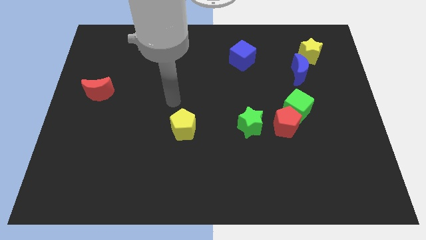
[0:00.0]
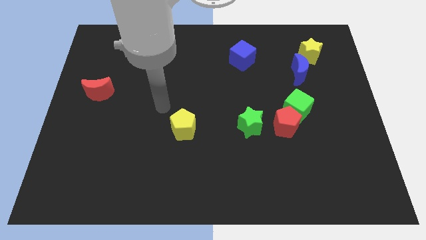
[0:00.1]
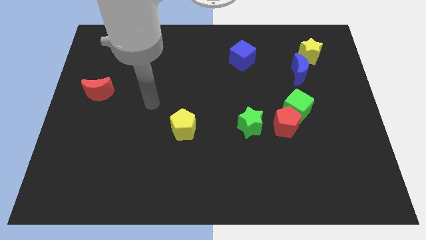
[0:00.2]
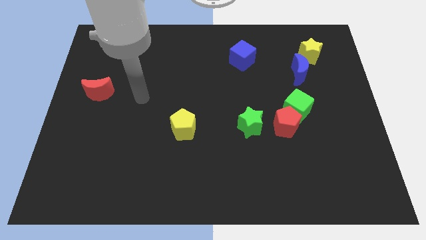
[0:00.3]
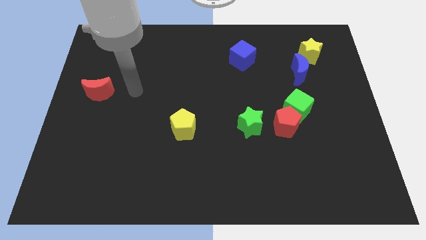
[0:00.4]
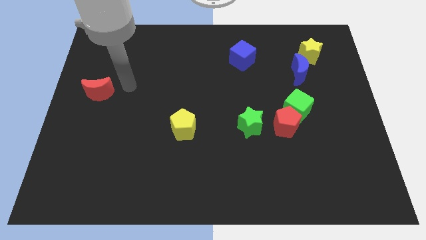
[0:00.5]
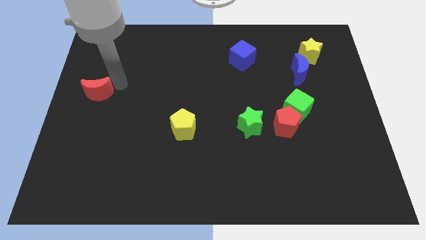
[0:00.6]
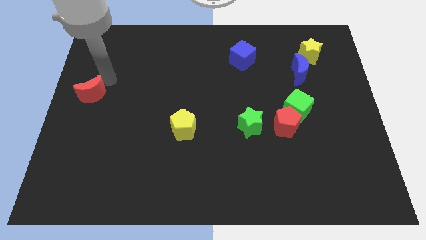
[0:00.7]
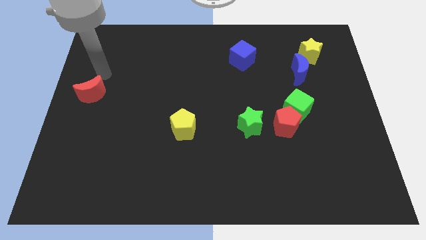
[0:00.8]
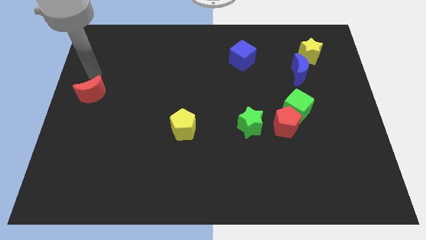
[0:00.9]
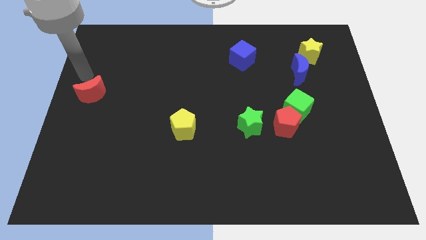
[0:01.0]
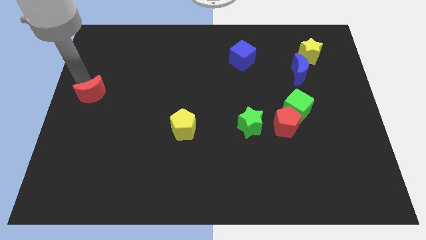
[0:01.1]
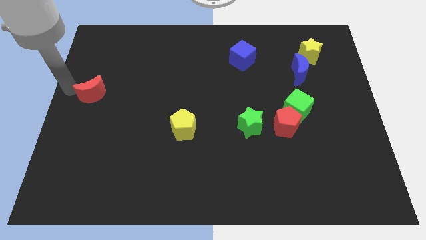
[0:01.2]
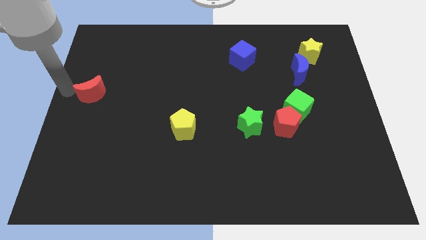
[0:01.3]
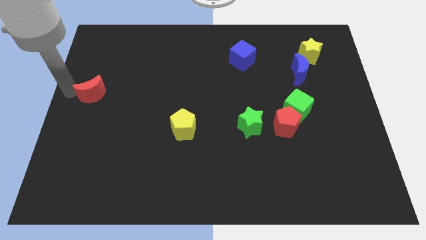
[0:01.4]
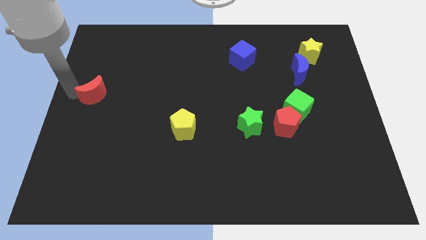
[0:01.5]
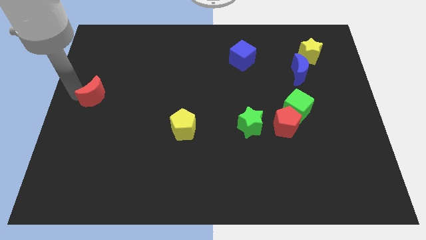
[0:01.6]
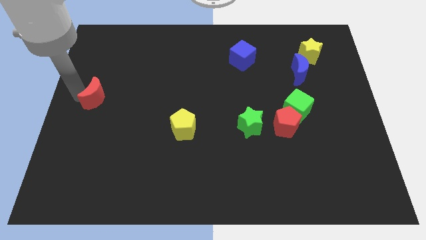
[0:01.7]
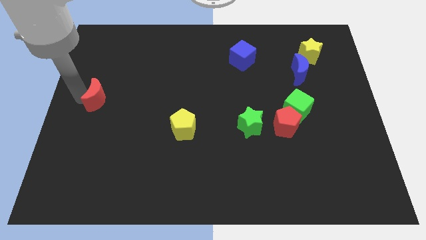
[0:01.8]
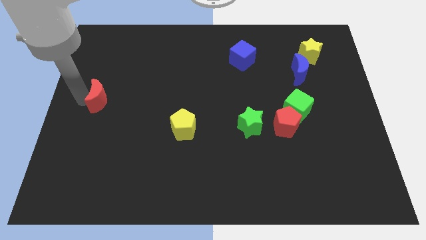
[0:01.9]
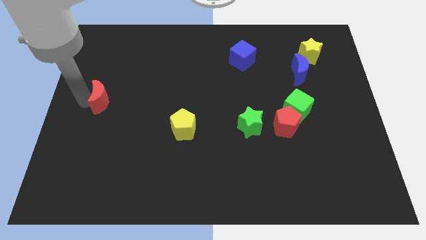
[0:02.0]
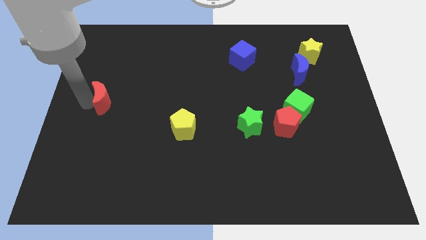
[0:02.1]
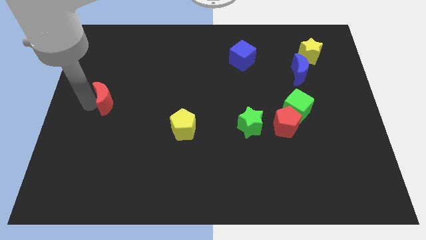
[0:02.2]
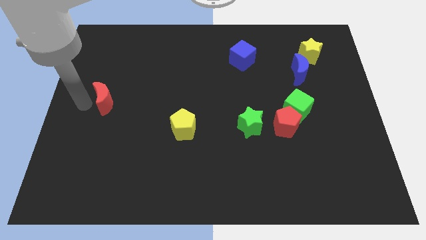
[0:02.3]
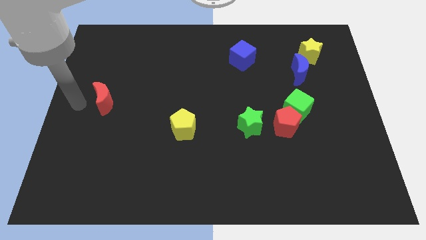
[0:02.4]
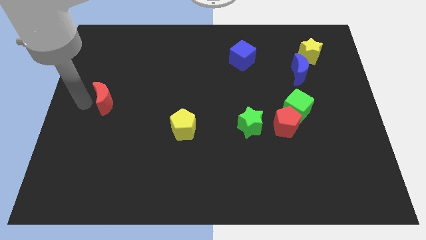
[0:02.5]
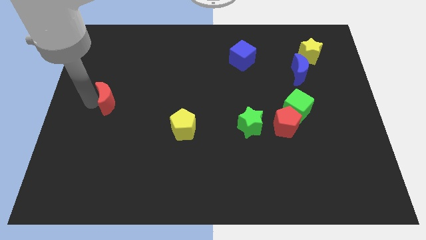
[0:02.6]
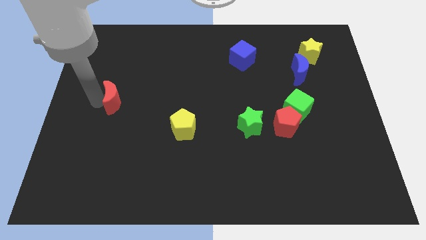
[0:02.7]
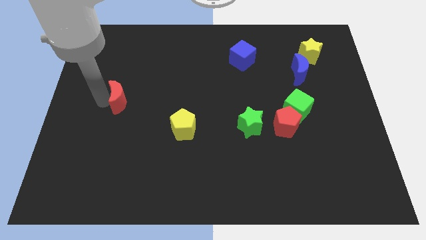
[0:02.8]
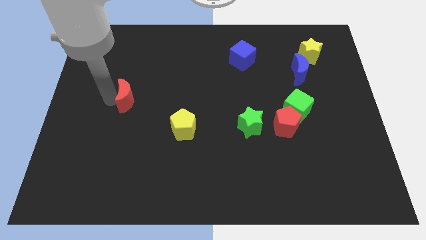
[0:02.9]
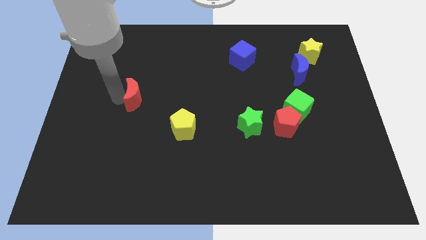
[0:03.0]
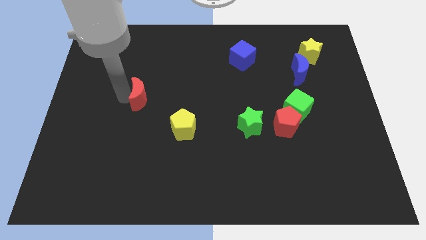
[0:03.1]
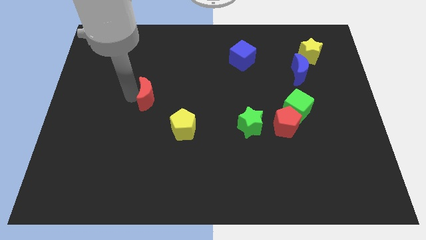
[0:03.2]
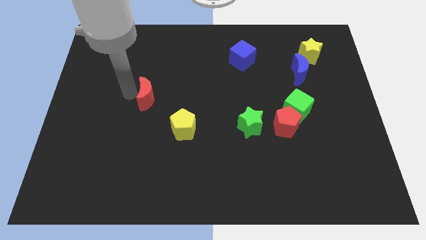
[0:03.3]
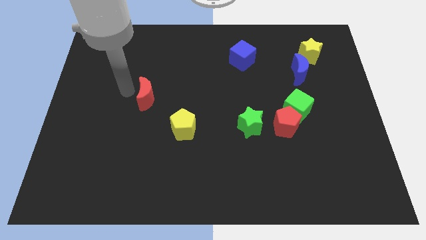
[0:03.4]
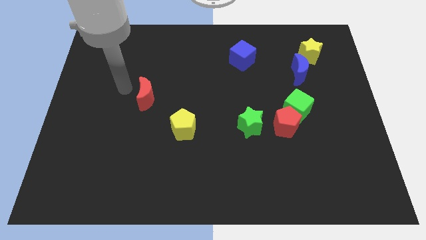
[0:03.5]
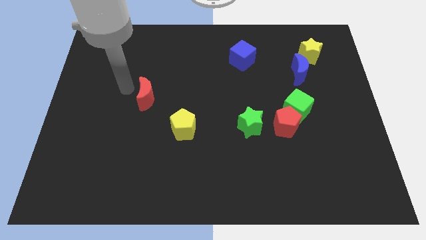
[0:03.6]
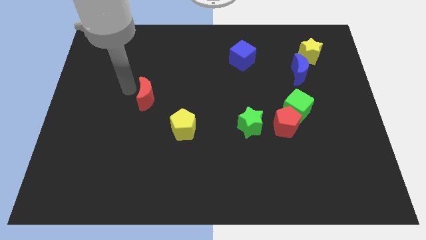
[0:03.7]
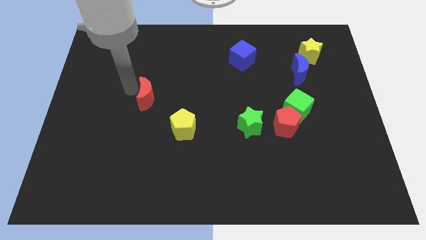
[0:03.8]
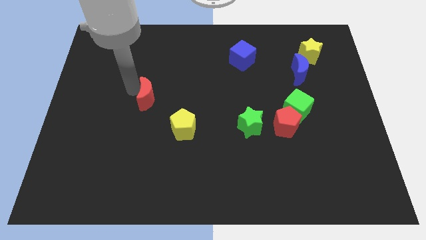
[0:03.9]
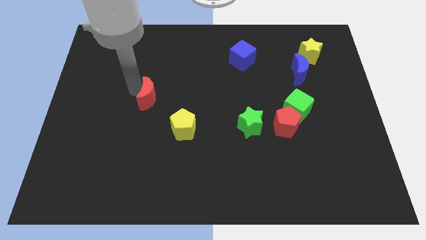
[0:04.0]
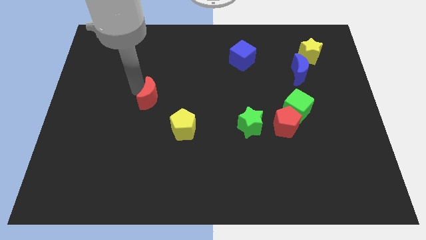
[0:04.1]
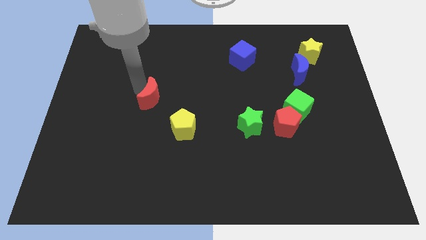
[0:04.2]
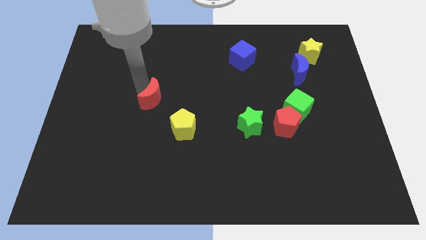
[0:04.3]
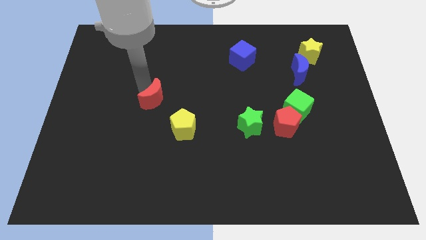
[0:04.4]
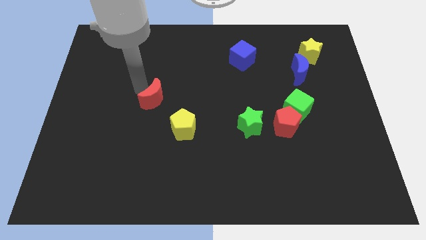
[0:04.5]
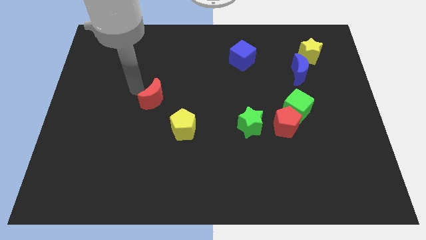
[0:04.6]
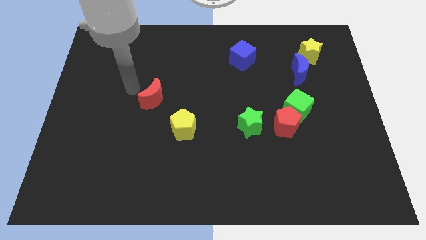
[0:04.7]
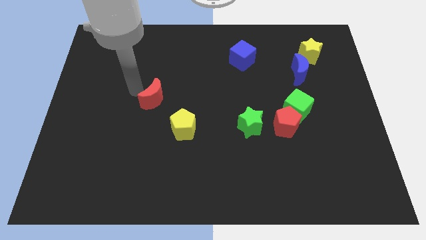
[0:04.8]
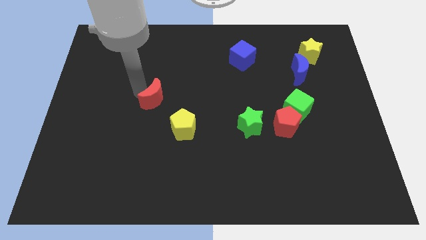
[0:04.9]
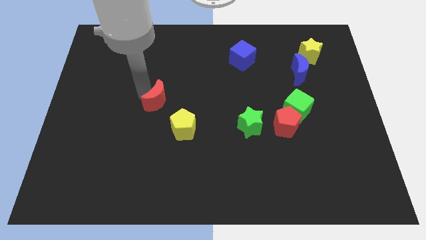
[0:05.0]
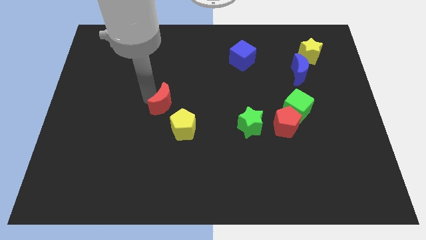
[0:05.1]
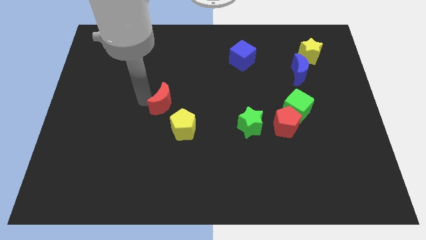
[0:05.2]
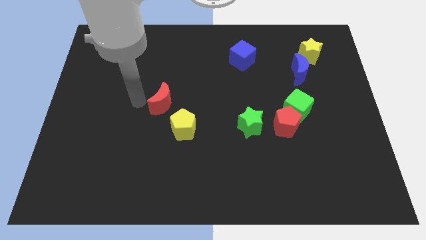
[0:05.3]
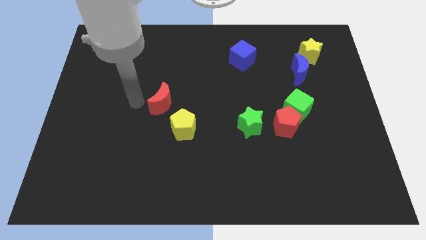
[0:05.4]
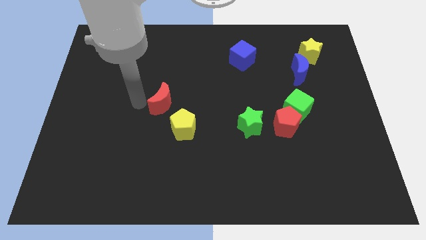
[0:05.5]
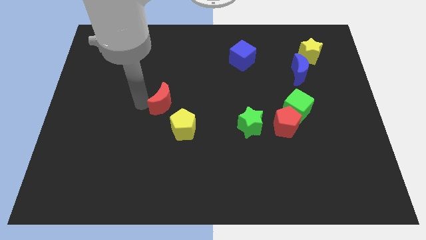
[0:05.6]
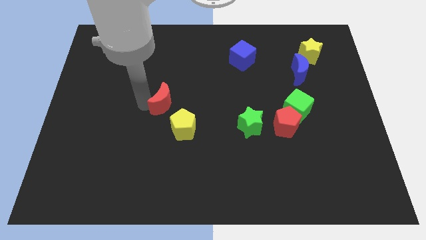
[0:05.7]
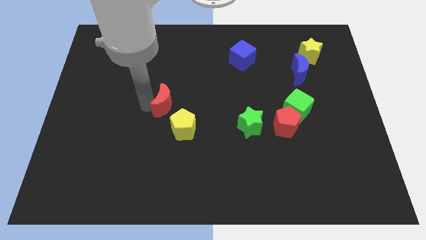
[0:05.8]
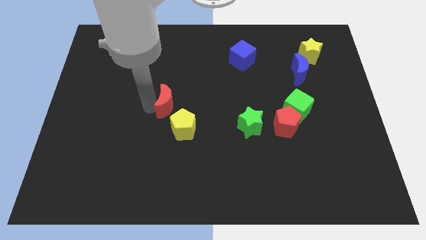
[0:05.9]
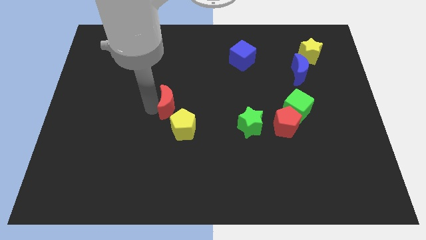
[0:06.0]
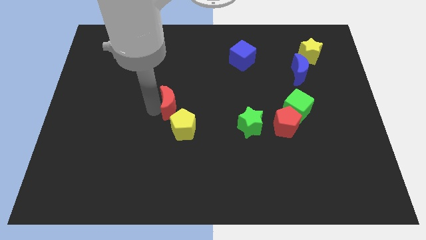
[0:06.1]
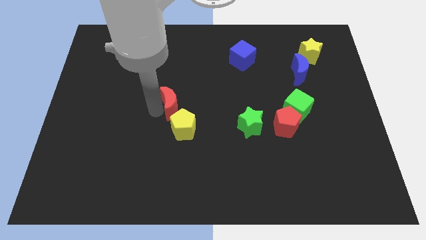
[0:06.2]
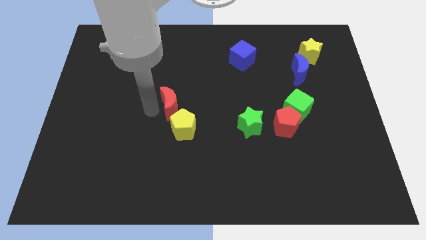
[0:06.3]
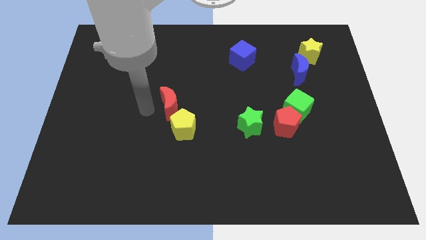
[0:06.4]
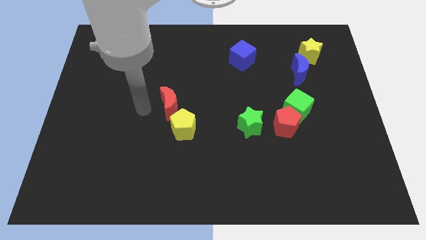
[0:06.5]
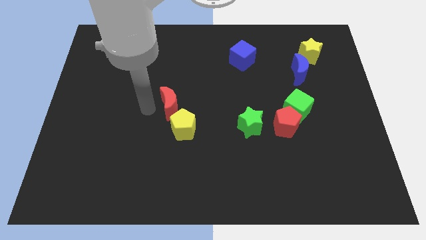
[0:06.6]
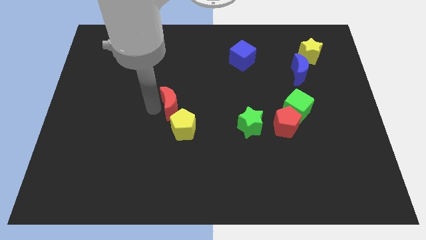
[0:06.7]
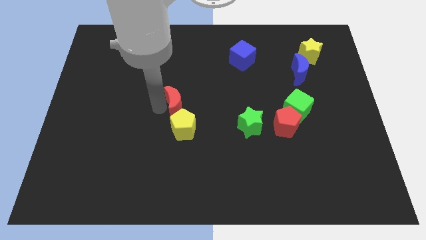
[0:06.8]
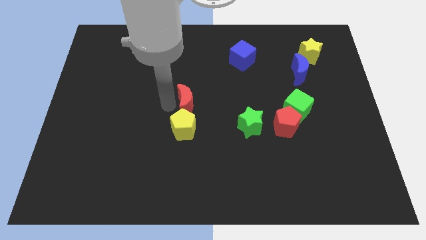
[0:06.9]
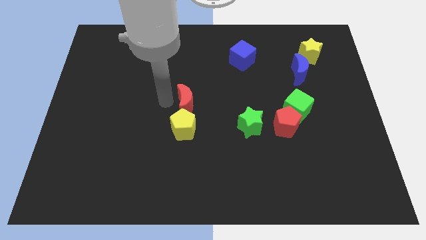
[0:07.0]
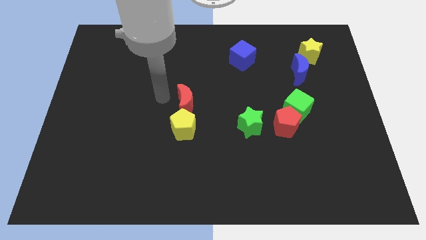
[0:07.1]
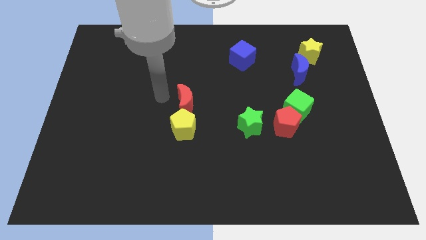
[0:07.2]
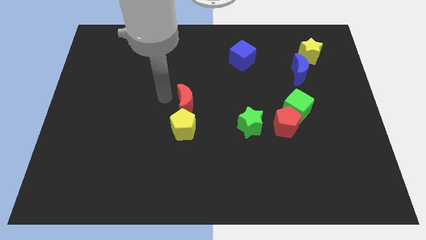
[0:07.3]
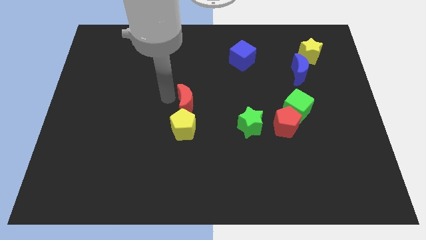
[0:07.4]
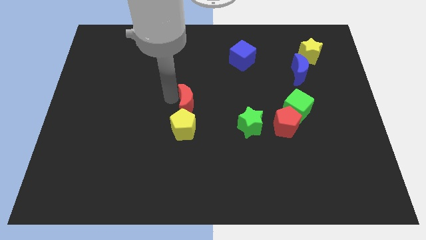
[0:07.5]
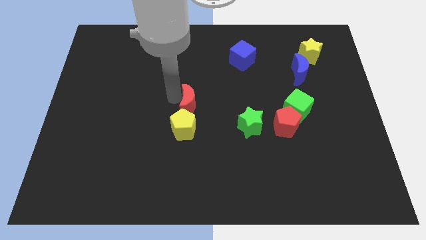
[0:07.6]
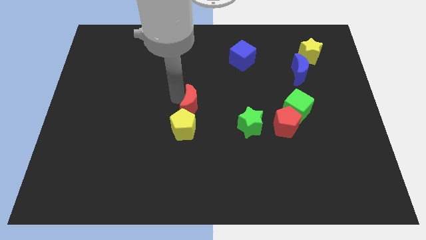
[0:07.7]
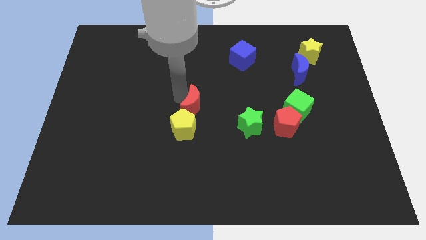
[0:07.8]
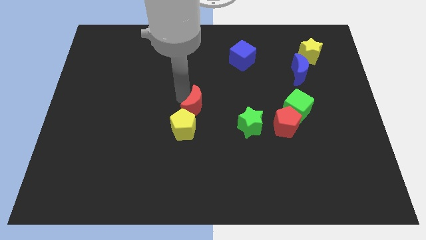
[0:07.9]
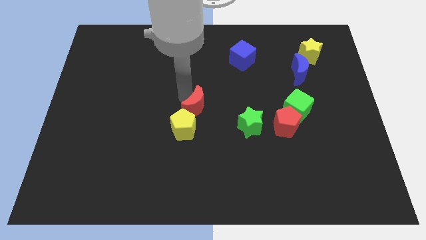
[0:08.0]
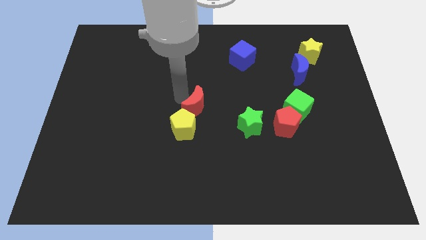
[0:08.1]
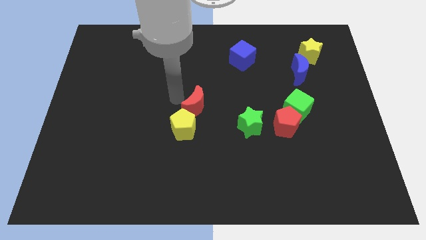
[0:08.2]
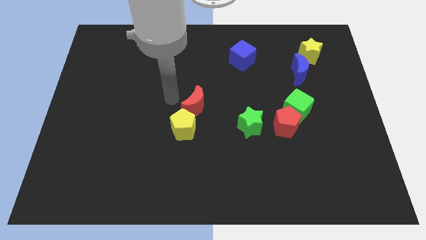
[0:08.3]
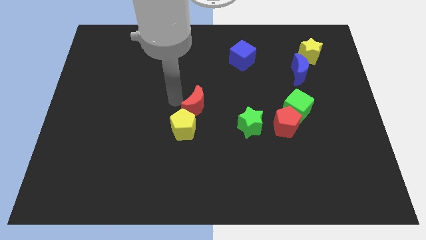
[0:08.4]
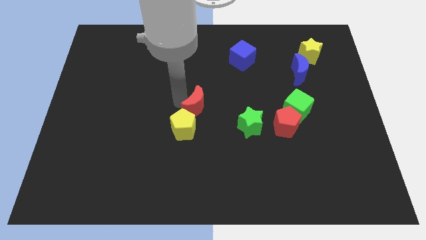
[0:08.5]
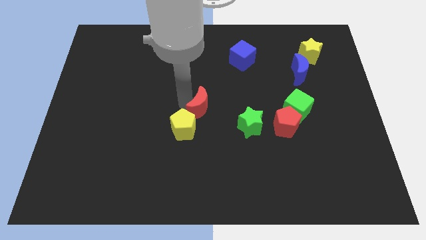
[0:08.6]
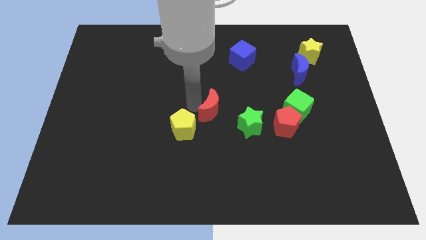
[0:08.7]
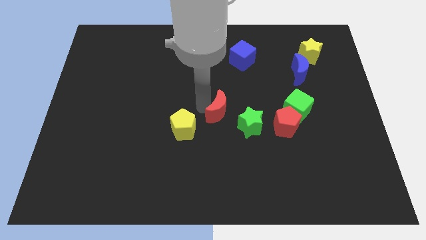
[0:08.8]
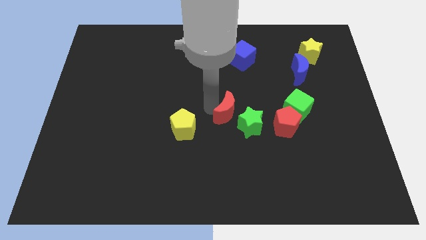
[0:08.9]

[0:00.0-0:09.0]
put the red moon left of the red pentagon
